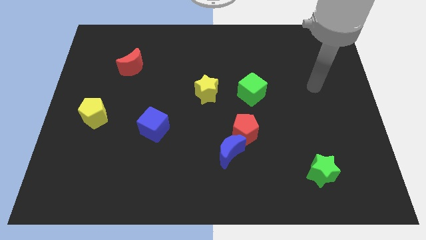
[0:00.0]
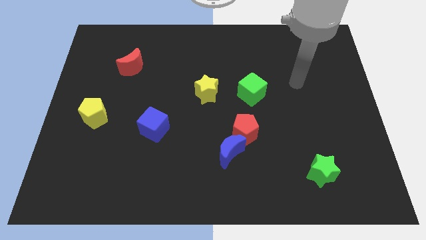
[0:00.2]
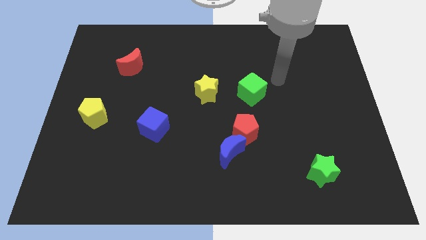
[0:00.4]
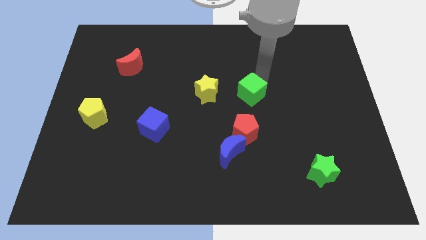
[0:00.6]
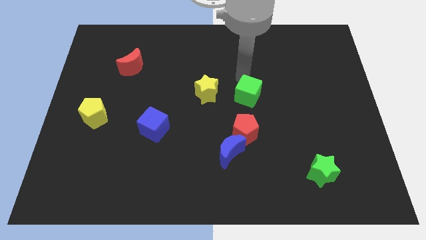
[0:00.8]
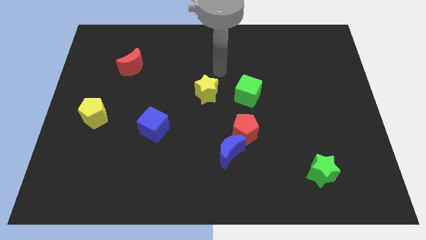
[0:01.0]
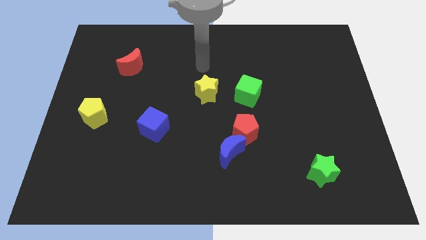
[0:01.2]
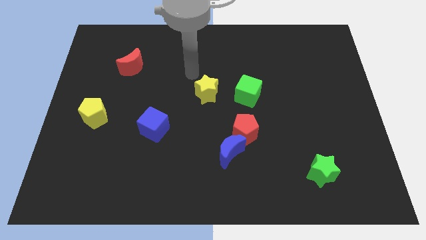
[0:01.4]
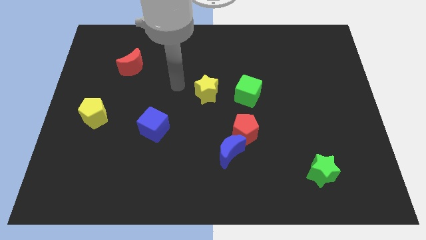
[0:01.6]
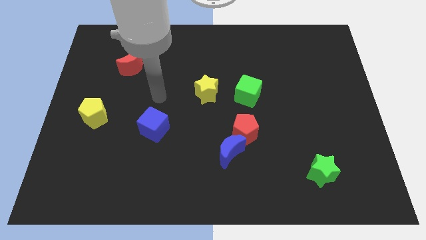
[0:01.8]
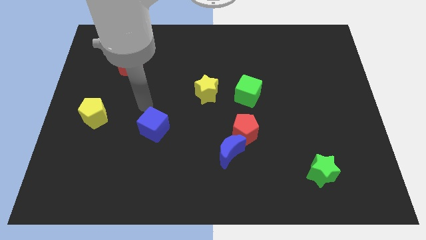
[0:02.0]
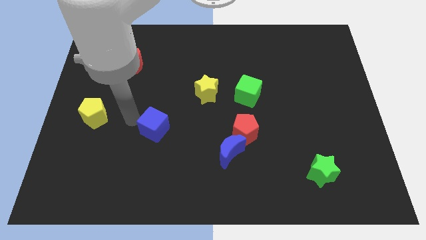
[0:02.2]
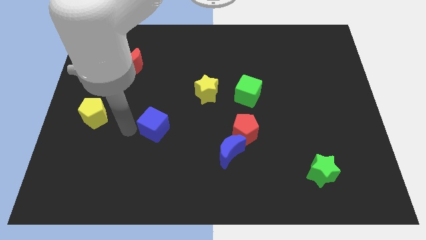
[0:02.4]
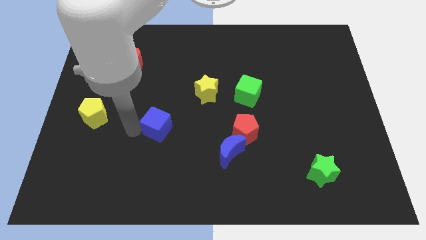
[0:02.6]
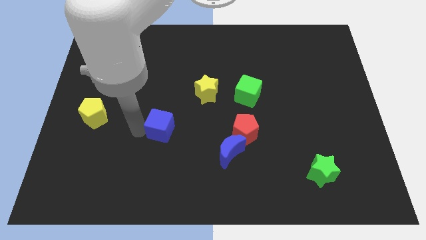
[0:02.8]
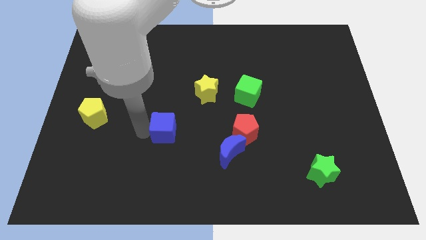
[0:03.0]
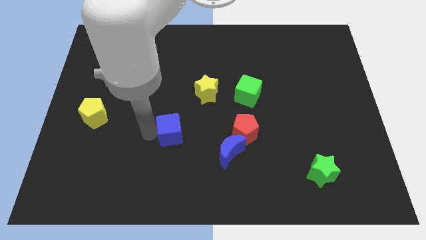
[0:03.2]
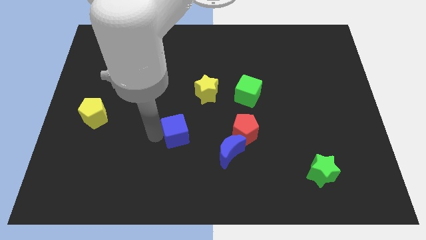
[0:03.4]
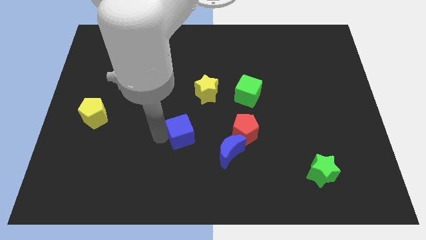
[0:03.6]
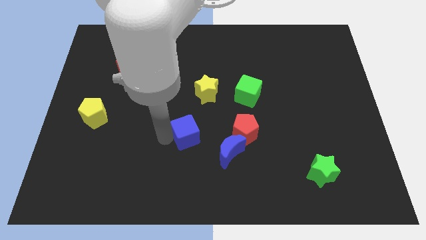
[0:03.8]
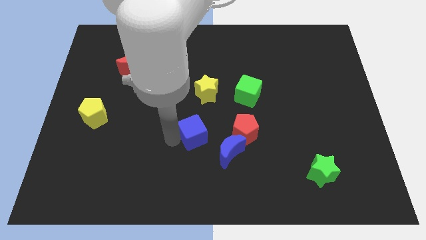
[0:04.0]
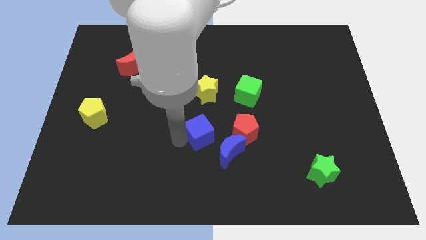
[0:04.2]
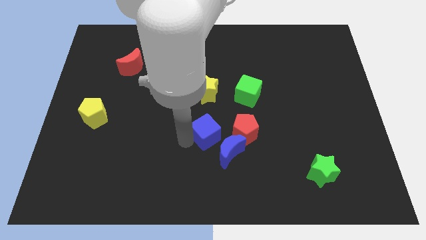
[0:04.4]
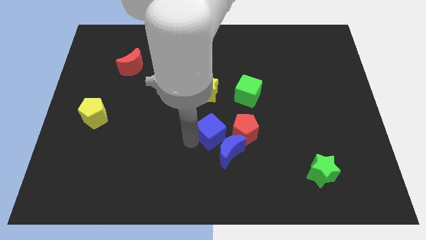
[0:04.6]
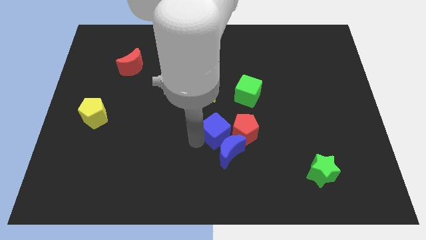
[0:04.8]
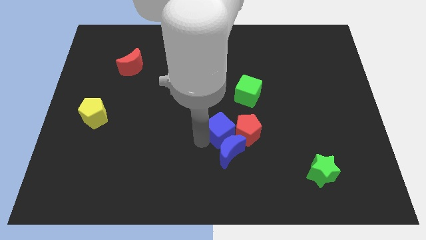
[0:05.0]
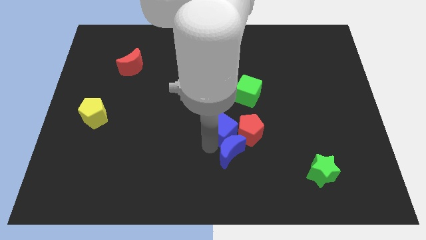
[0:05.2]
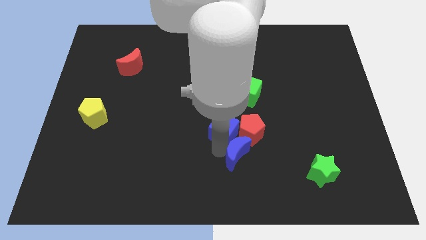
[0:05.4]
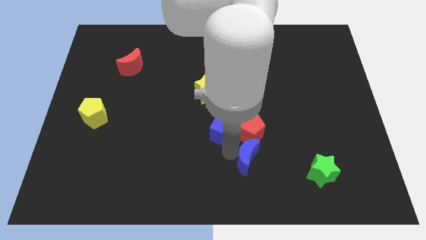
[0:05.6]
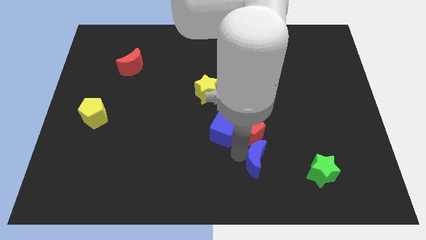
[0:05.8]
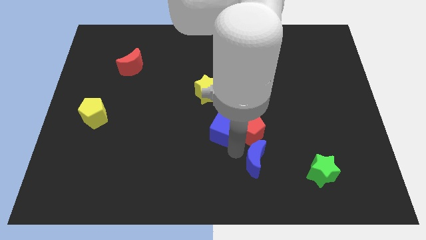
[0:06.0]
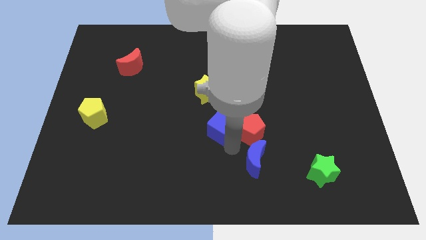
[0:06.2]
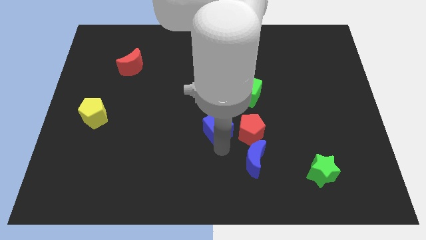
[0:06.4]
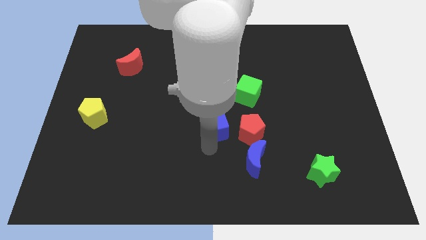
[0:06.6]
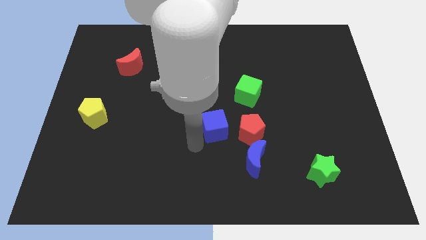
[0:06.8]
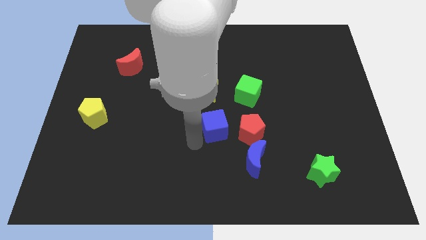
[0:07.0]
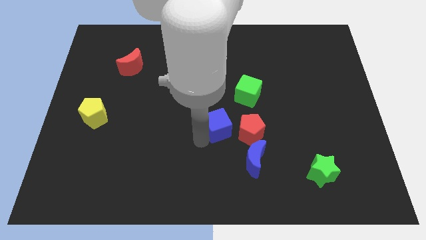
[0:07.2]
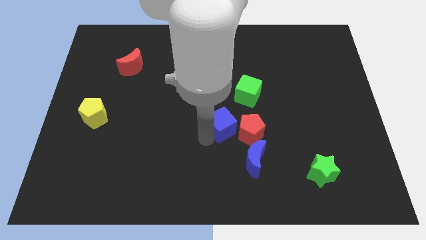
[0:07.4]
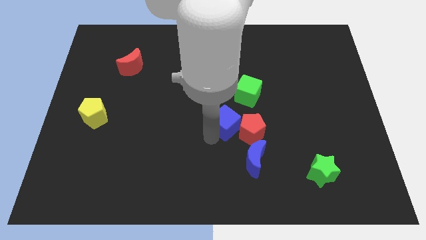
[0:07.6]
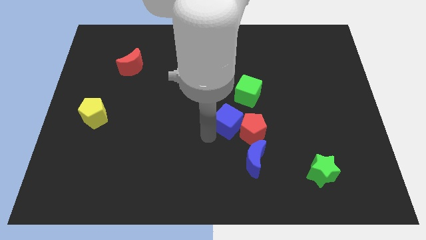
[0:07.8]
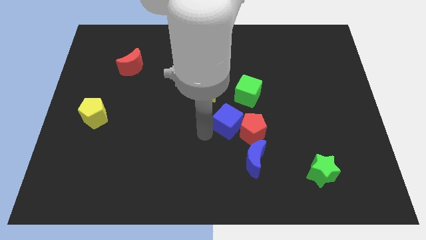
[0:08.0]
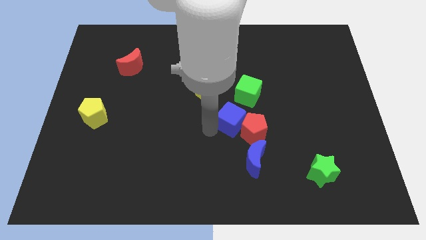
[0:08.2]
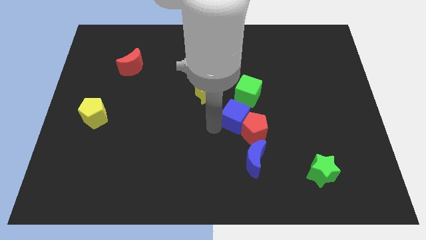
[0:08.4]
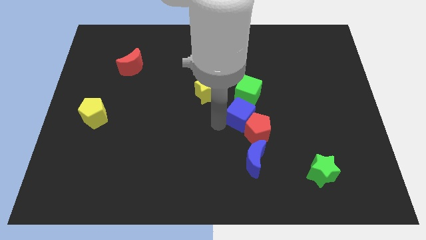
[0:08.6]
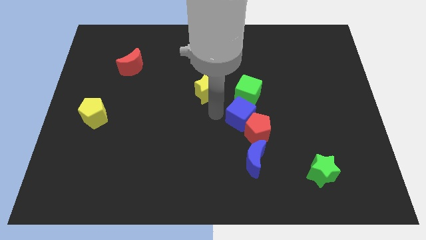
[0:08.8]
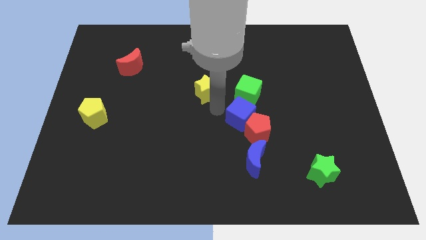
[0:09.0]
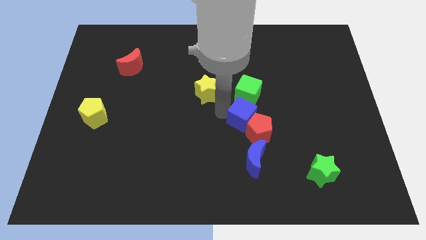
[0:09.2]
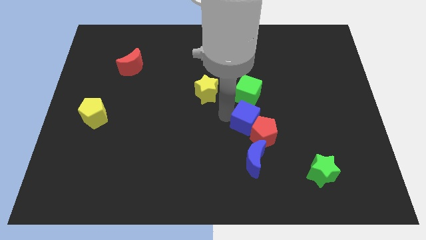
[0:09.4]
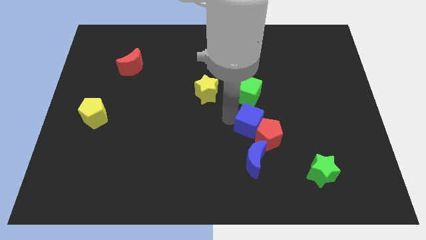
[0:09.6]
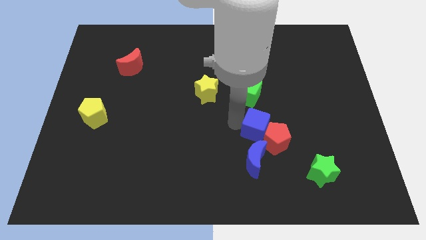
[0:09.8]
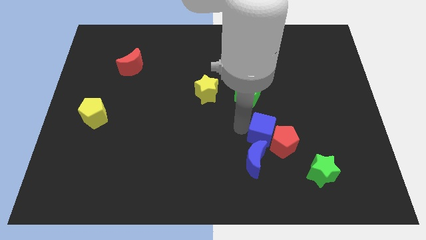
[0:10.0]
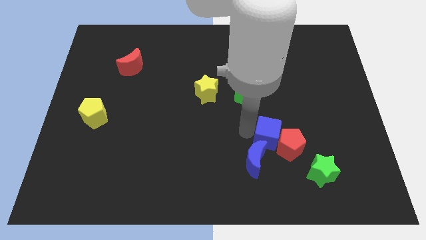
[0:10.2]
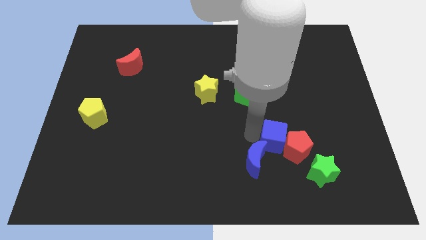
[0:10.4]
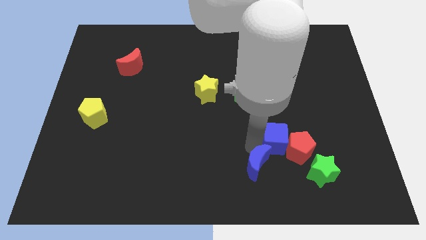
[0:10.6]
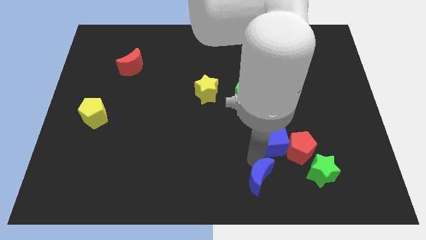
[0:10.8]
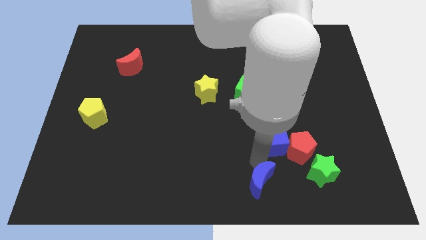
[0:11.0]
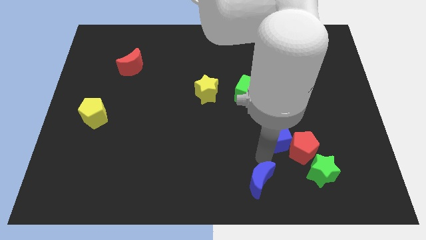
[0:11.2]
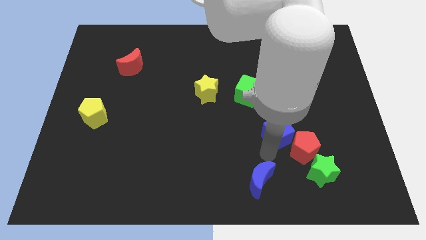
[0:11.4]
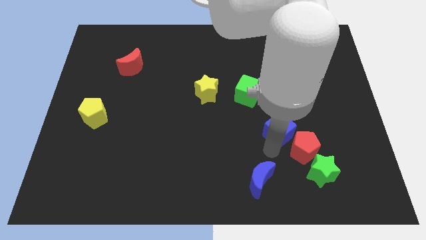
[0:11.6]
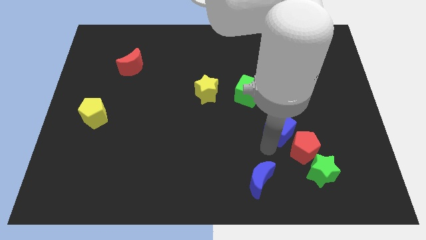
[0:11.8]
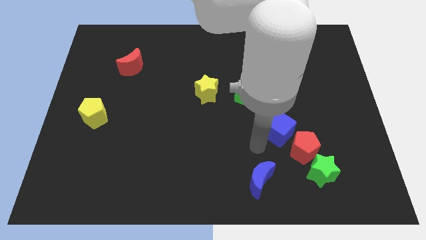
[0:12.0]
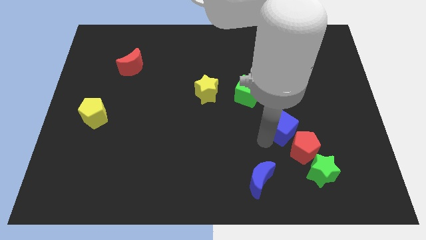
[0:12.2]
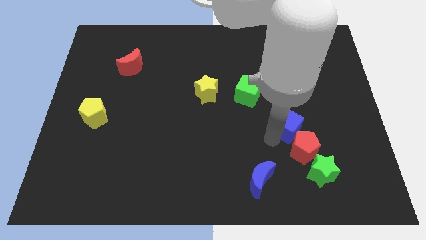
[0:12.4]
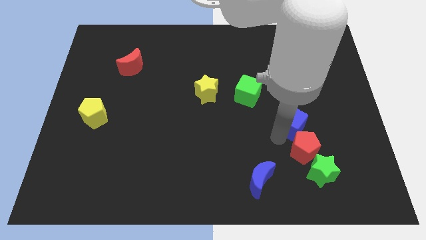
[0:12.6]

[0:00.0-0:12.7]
push the blue cube to the top of the green star

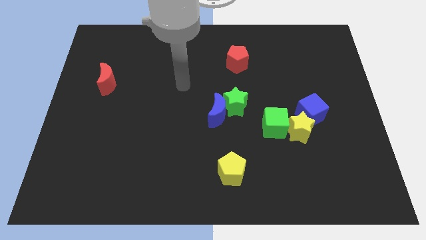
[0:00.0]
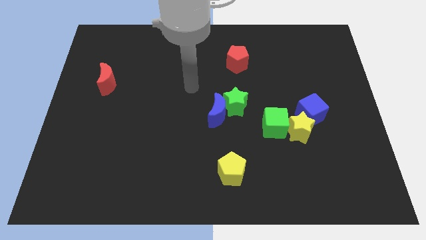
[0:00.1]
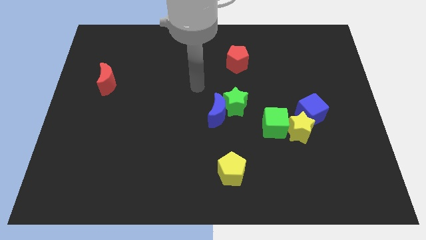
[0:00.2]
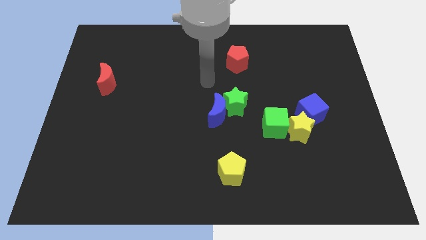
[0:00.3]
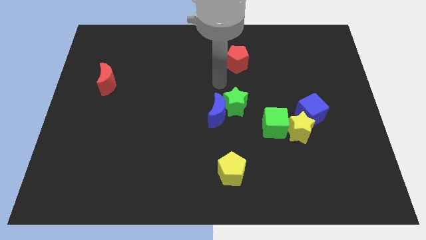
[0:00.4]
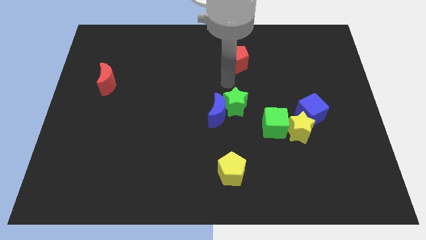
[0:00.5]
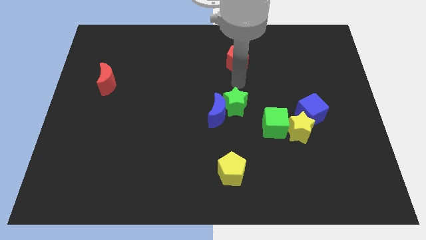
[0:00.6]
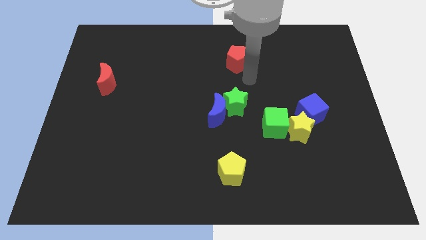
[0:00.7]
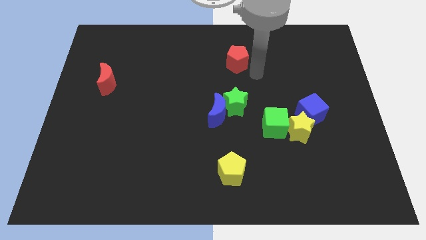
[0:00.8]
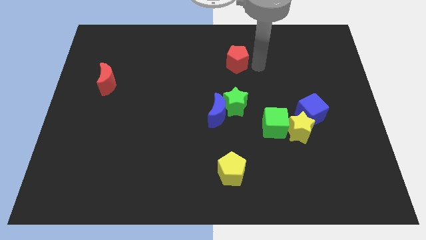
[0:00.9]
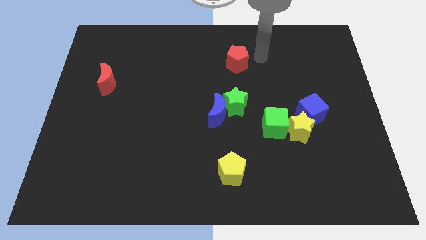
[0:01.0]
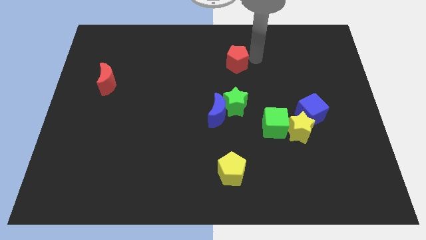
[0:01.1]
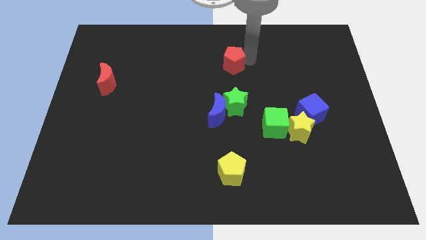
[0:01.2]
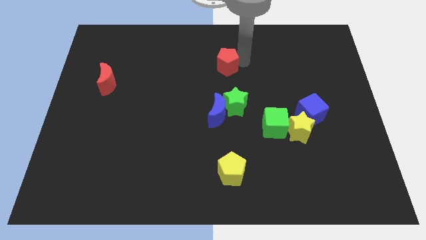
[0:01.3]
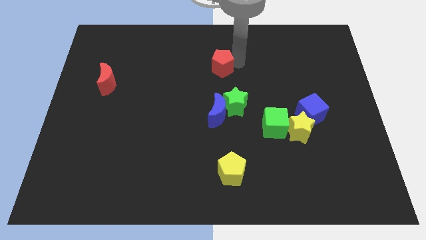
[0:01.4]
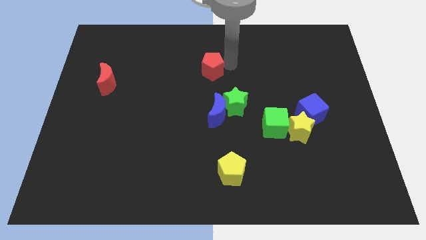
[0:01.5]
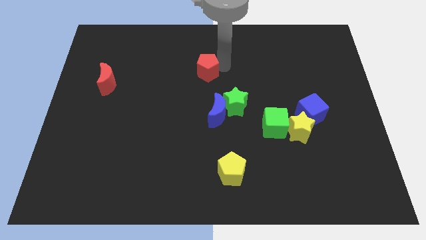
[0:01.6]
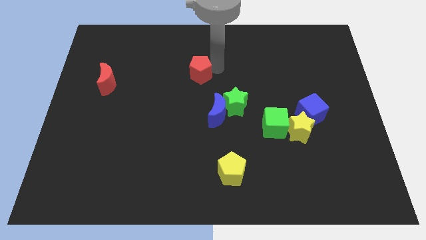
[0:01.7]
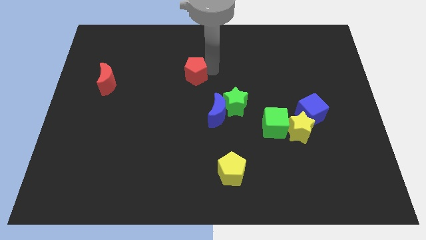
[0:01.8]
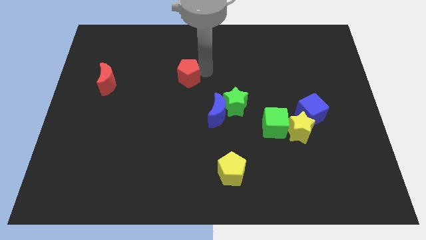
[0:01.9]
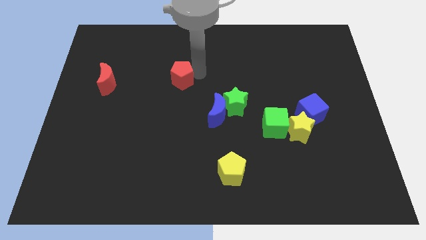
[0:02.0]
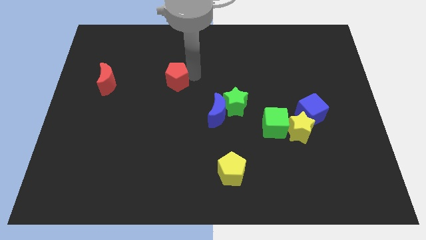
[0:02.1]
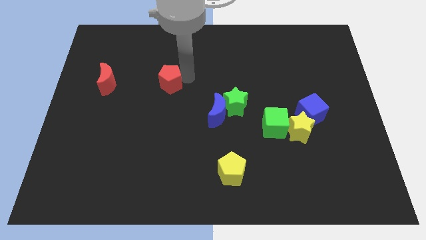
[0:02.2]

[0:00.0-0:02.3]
move the red pentagon right of the red moon
